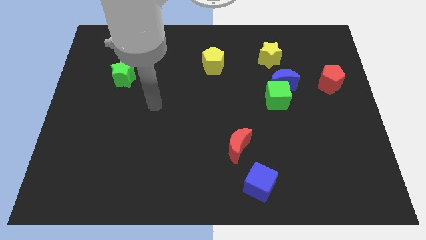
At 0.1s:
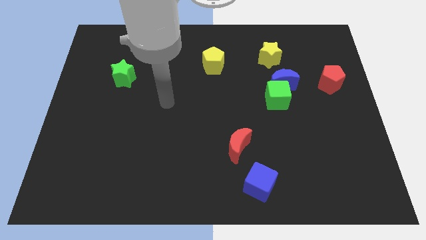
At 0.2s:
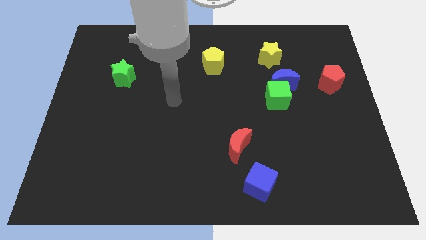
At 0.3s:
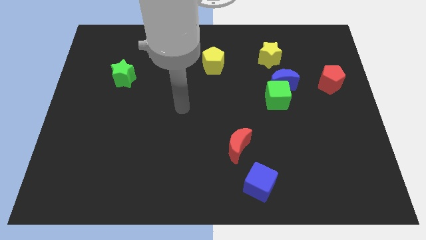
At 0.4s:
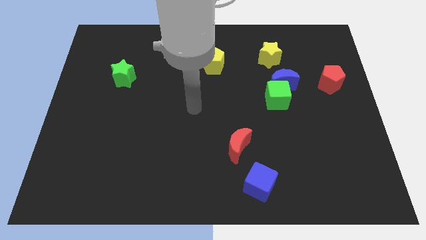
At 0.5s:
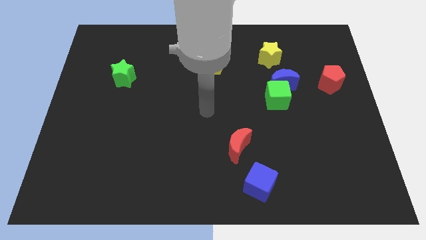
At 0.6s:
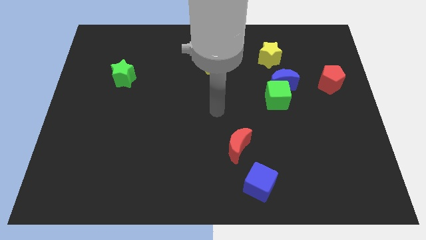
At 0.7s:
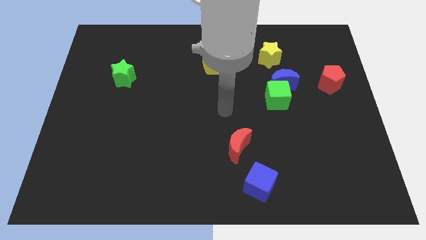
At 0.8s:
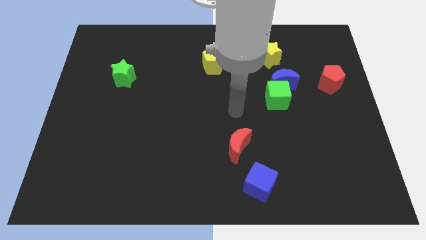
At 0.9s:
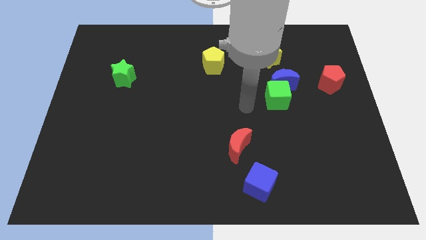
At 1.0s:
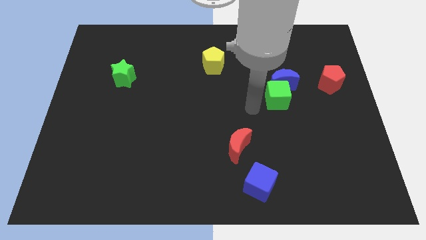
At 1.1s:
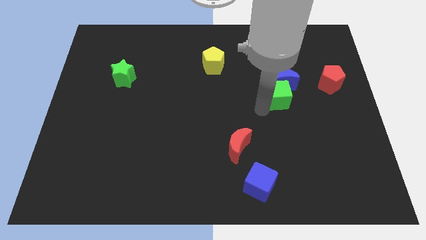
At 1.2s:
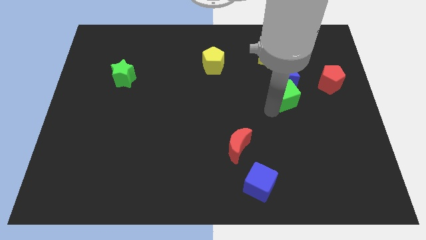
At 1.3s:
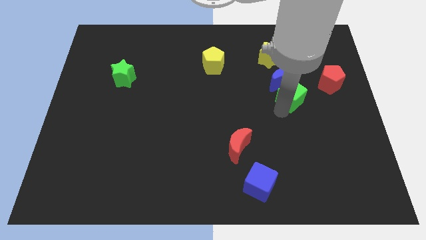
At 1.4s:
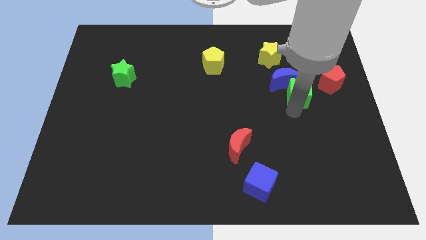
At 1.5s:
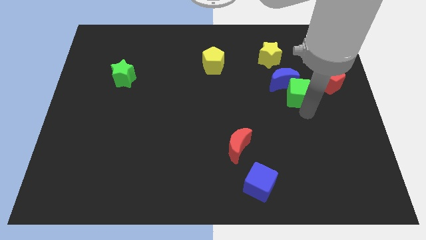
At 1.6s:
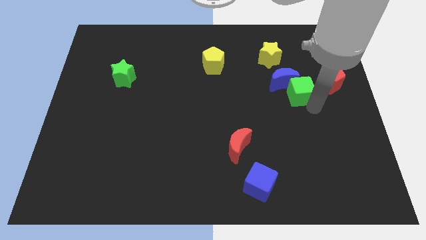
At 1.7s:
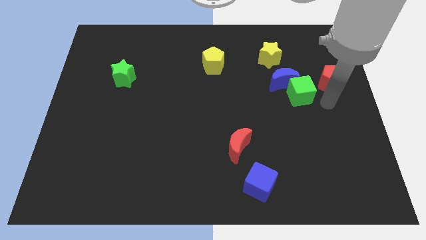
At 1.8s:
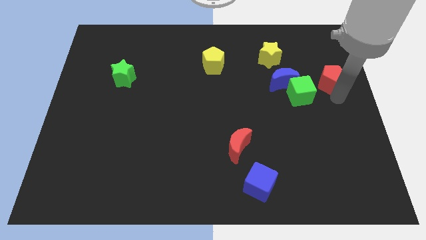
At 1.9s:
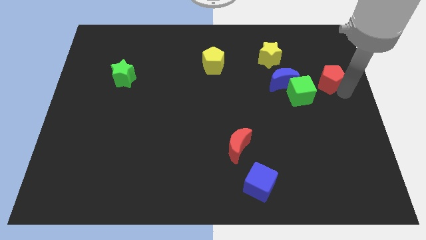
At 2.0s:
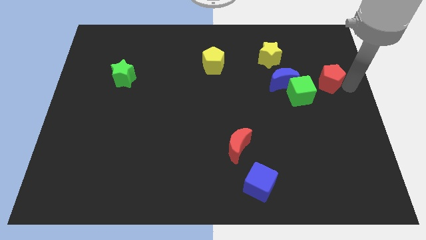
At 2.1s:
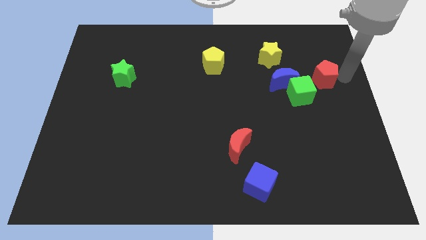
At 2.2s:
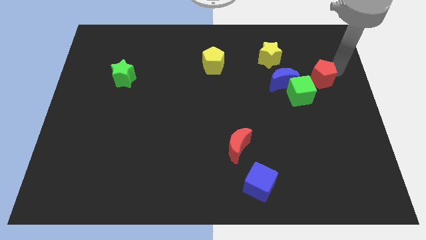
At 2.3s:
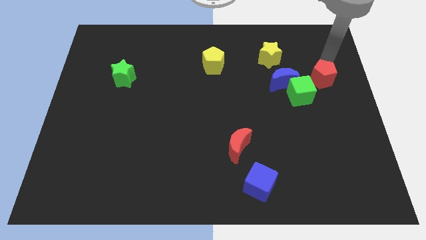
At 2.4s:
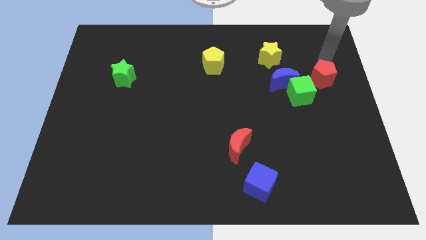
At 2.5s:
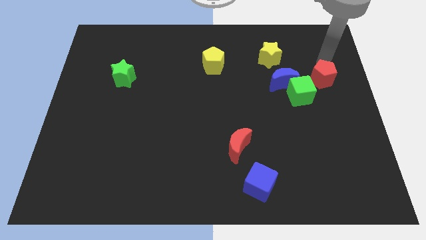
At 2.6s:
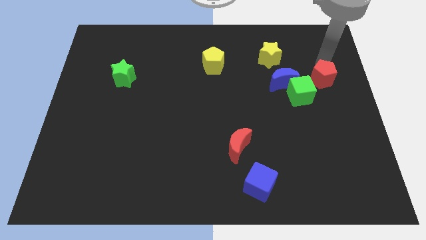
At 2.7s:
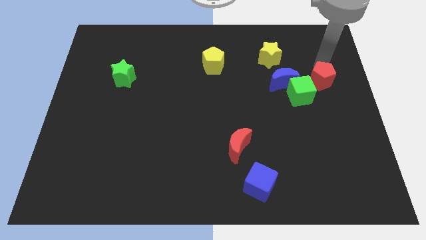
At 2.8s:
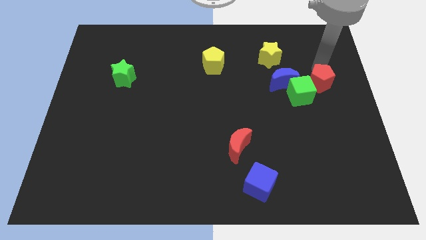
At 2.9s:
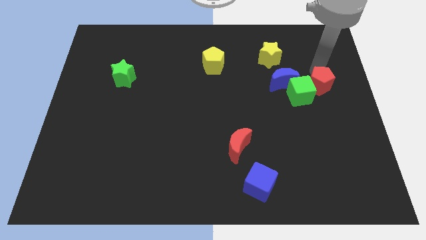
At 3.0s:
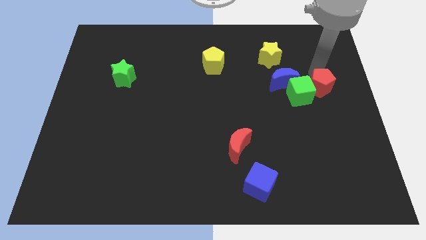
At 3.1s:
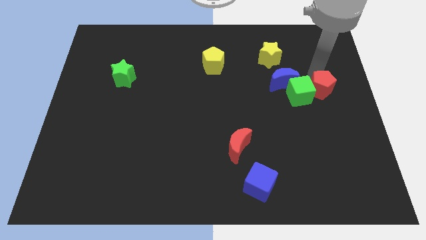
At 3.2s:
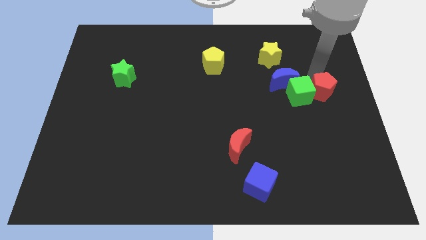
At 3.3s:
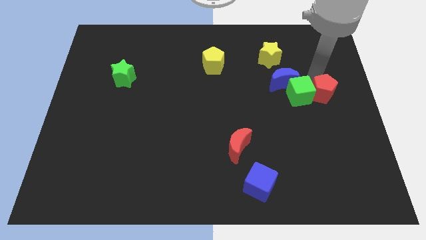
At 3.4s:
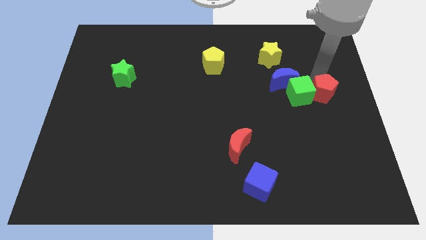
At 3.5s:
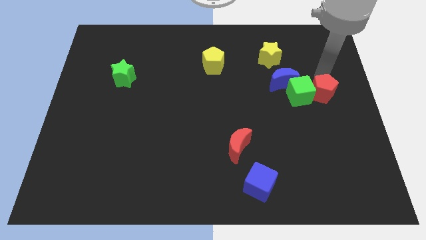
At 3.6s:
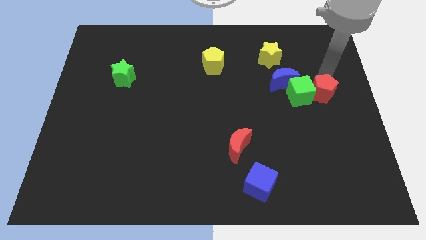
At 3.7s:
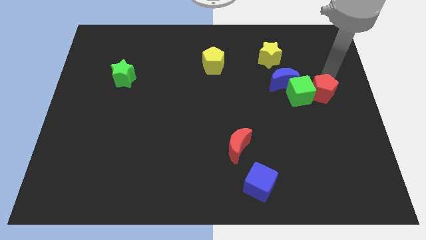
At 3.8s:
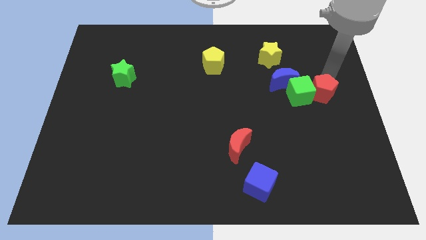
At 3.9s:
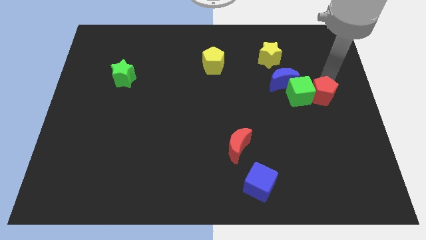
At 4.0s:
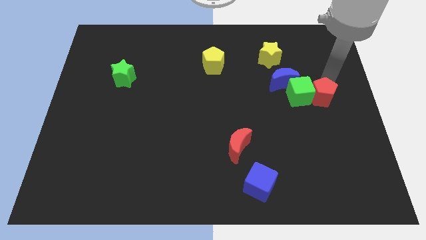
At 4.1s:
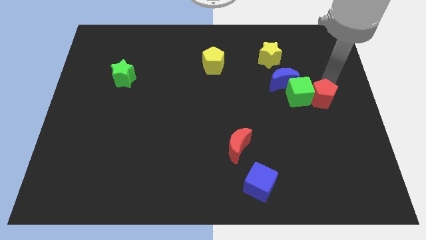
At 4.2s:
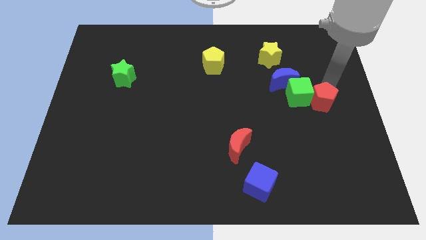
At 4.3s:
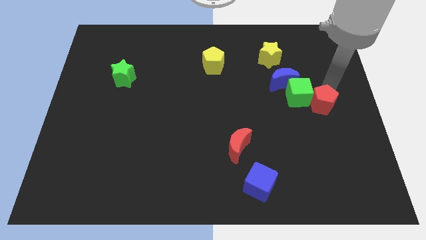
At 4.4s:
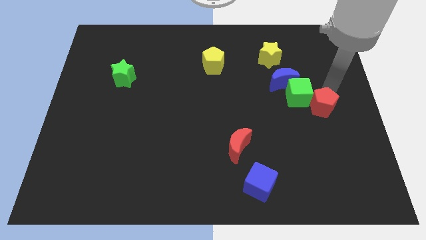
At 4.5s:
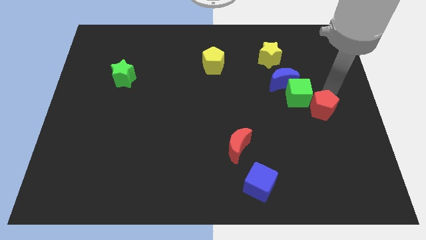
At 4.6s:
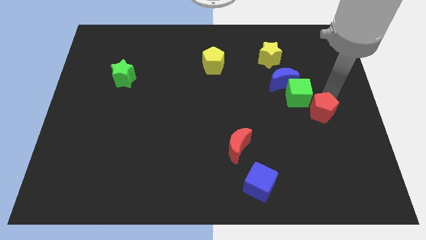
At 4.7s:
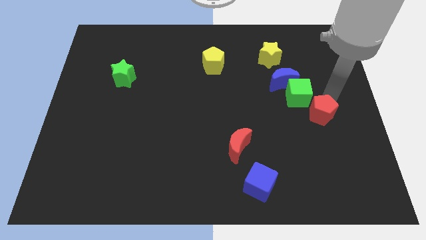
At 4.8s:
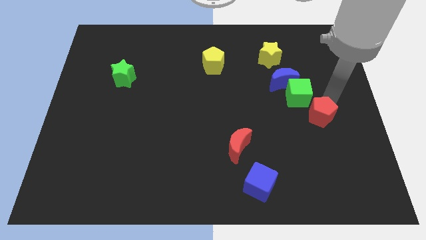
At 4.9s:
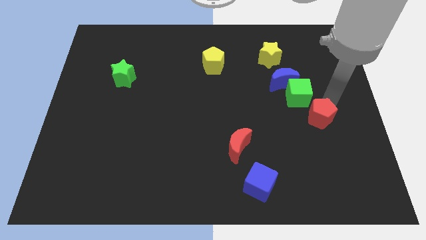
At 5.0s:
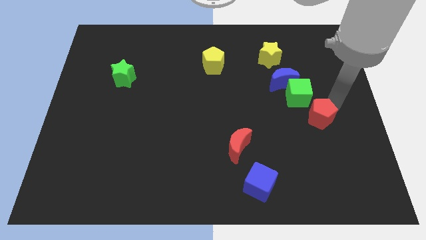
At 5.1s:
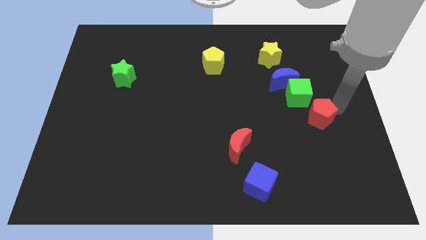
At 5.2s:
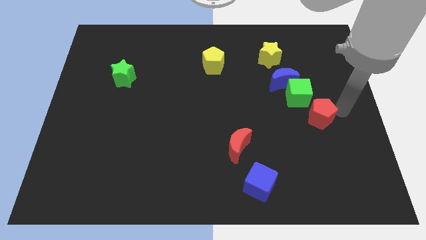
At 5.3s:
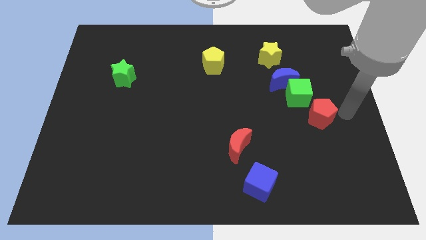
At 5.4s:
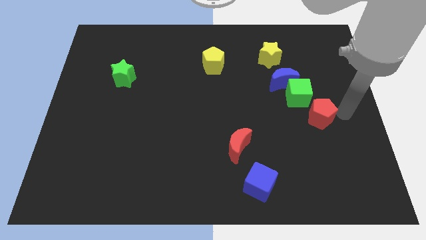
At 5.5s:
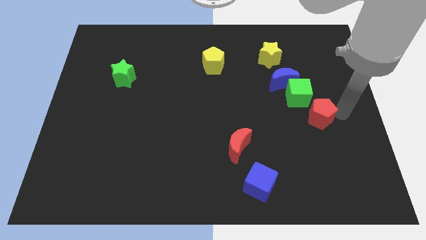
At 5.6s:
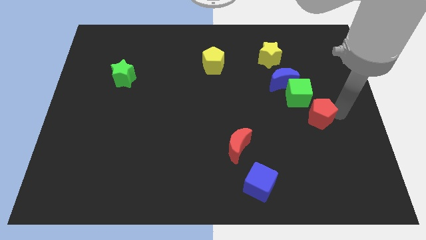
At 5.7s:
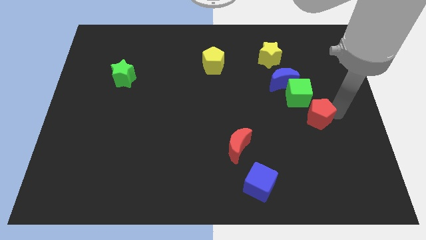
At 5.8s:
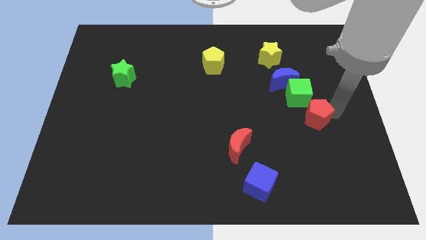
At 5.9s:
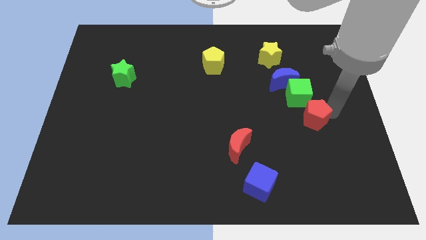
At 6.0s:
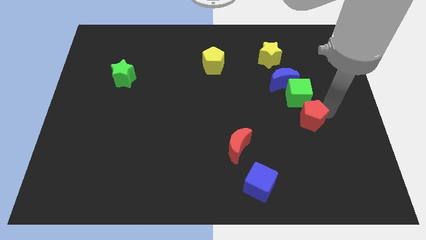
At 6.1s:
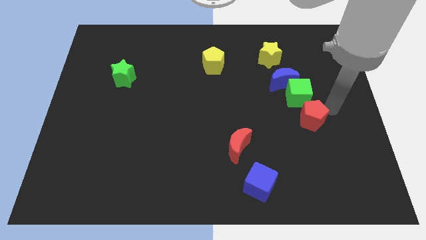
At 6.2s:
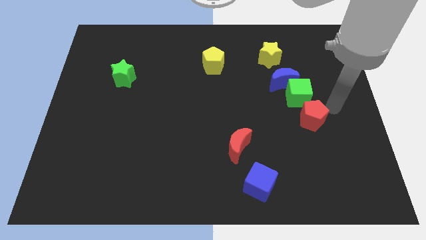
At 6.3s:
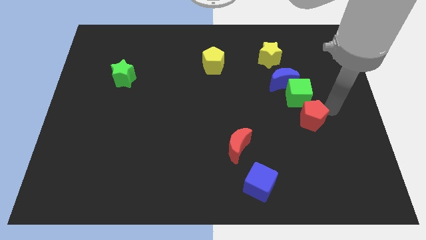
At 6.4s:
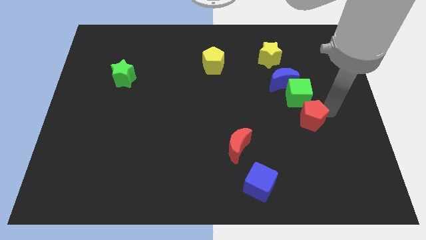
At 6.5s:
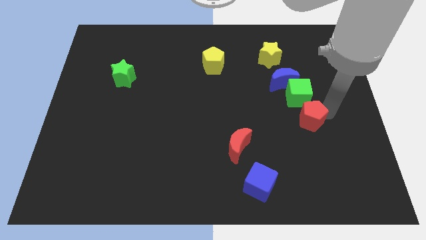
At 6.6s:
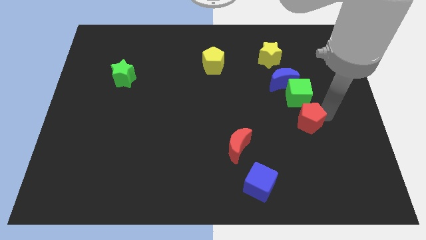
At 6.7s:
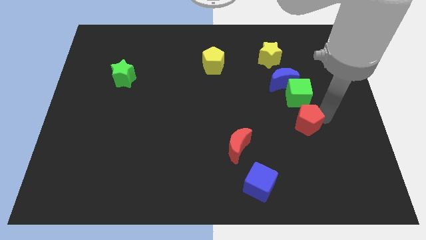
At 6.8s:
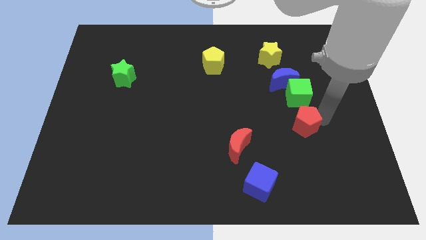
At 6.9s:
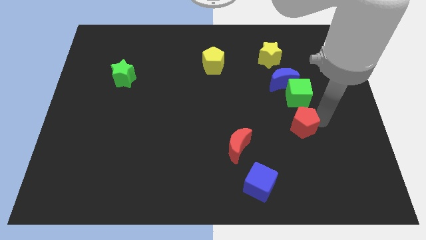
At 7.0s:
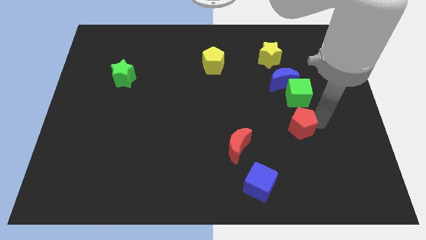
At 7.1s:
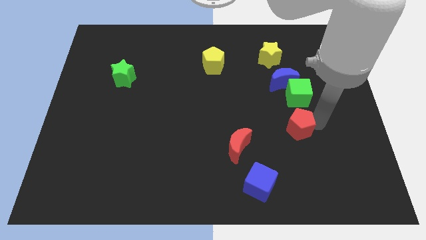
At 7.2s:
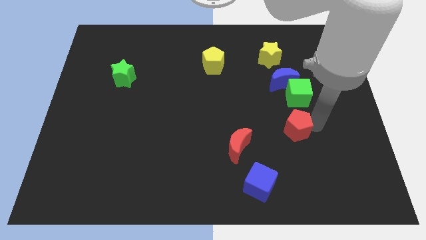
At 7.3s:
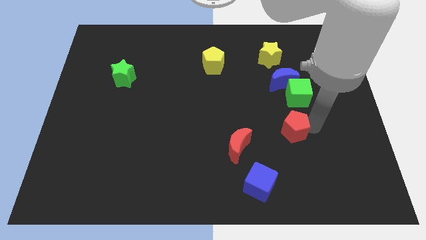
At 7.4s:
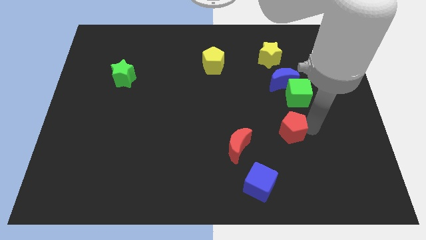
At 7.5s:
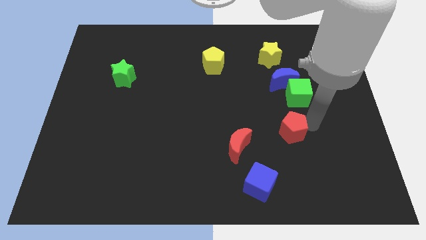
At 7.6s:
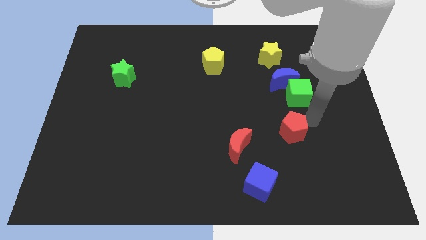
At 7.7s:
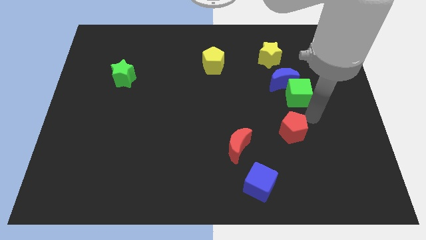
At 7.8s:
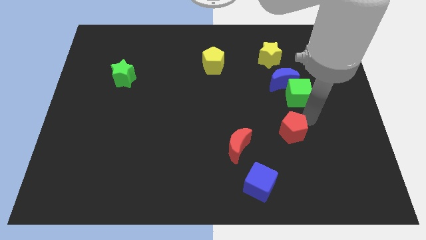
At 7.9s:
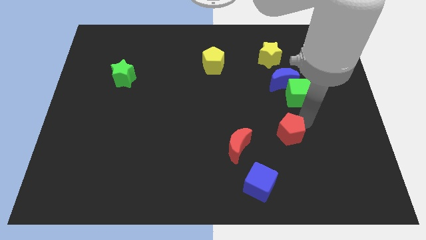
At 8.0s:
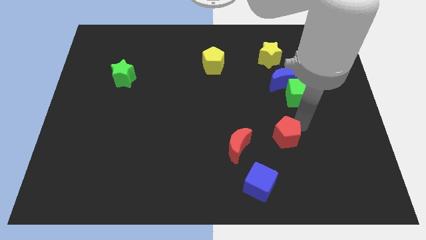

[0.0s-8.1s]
slide the red pentagon down and left diagonally
